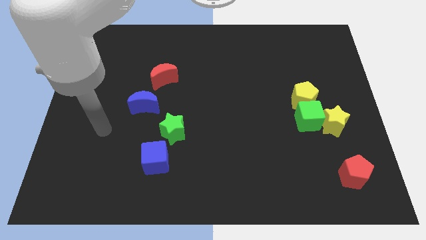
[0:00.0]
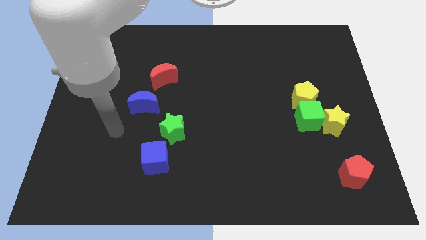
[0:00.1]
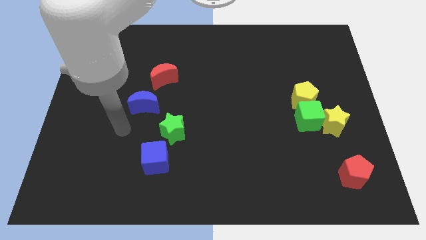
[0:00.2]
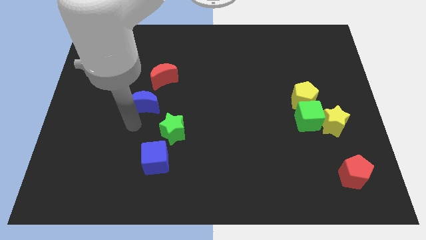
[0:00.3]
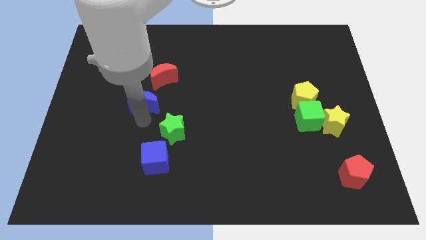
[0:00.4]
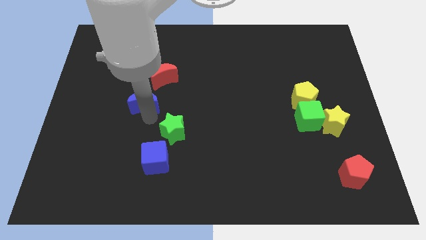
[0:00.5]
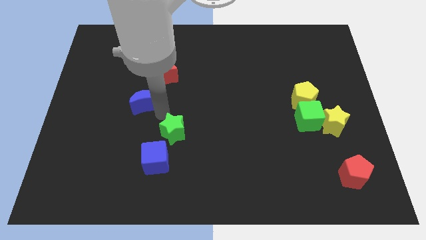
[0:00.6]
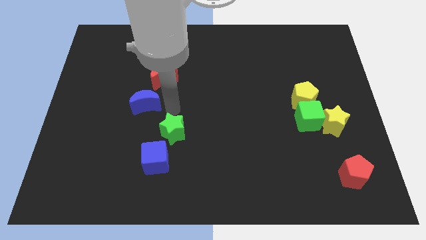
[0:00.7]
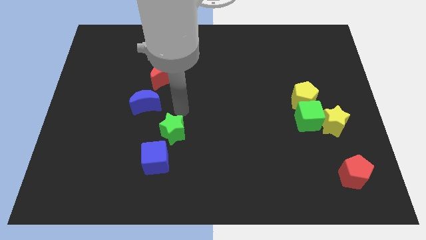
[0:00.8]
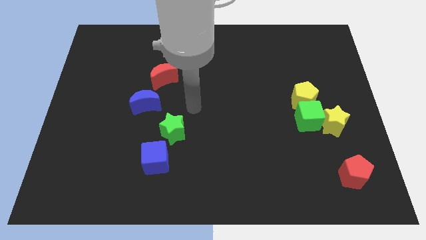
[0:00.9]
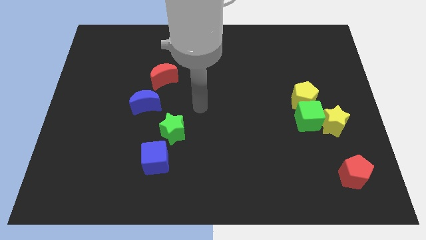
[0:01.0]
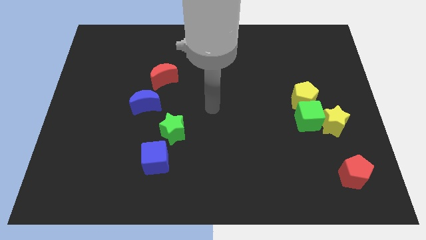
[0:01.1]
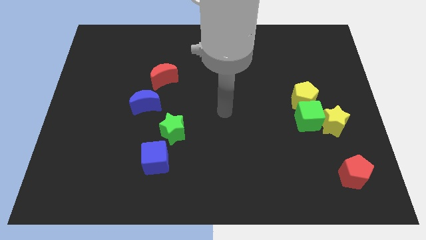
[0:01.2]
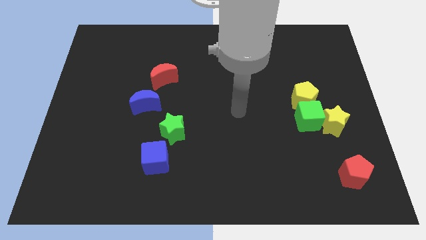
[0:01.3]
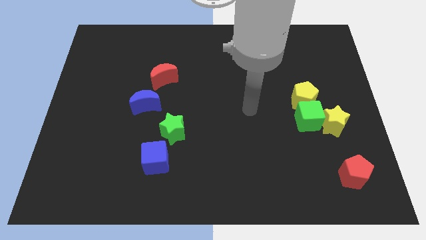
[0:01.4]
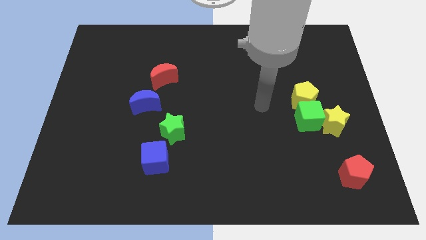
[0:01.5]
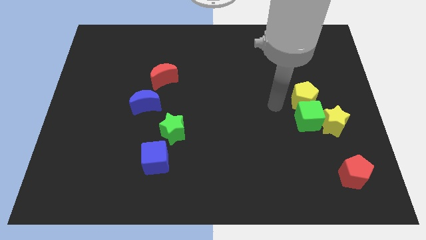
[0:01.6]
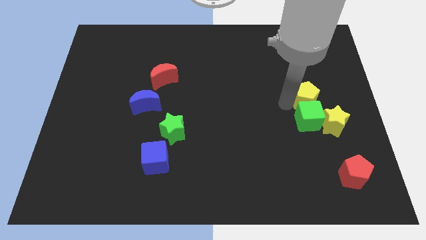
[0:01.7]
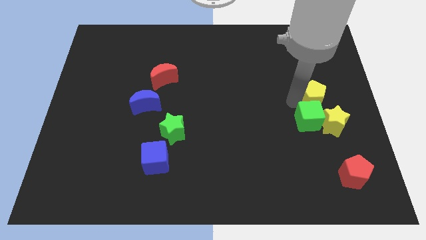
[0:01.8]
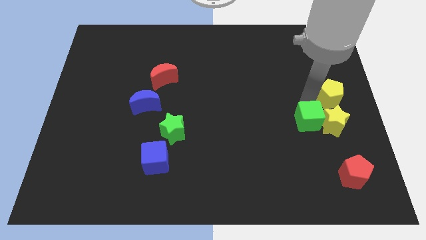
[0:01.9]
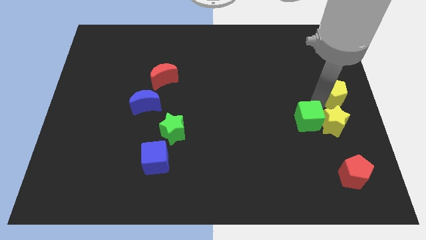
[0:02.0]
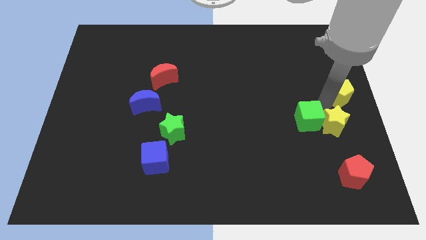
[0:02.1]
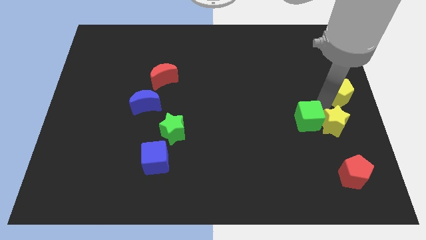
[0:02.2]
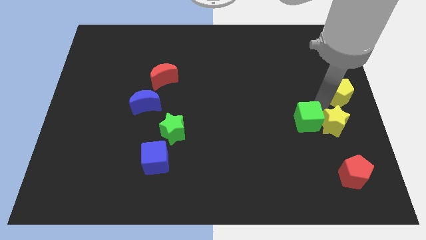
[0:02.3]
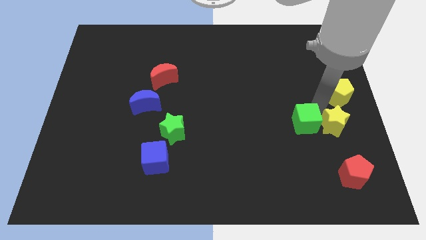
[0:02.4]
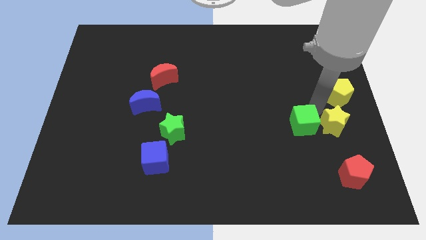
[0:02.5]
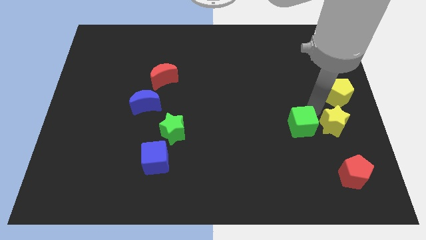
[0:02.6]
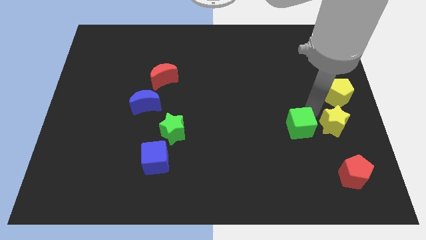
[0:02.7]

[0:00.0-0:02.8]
separate the green cube from the yellow star and yellow pentagon

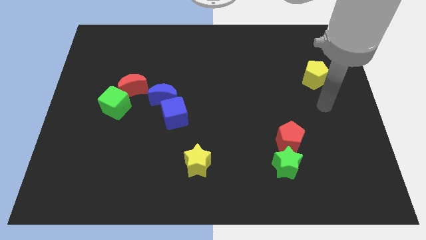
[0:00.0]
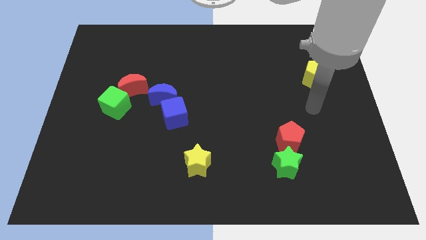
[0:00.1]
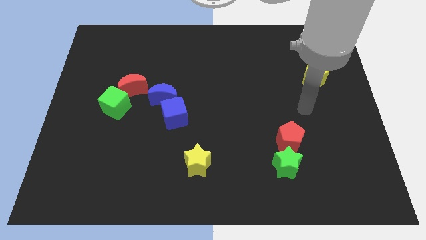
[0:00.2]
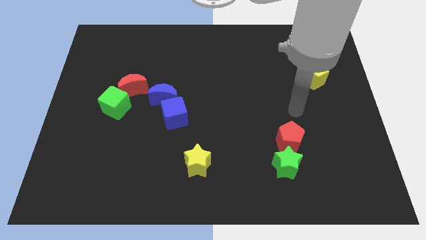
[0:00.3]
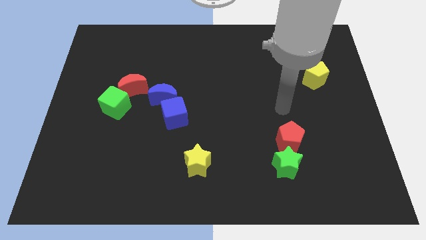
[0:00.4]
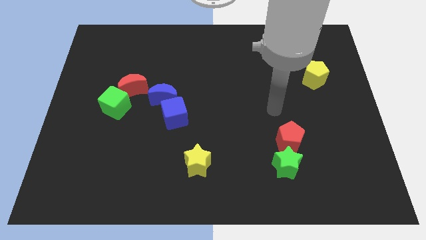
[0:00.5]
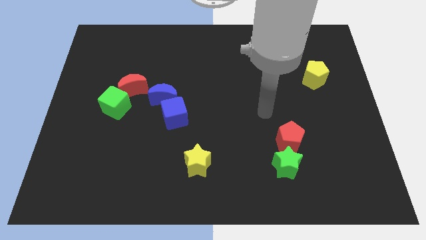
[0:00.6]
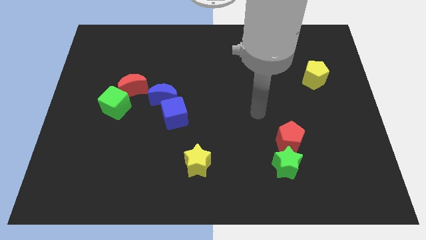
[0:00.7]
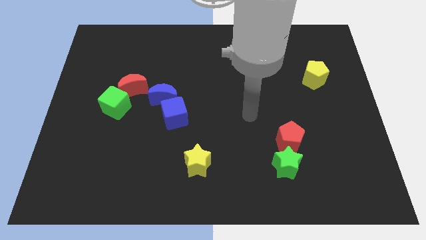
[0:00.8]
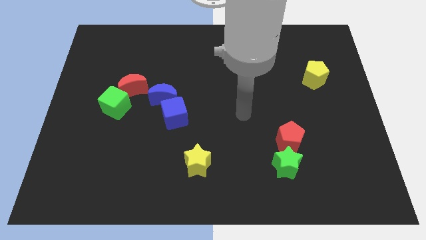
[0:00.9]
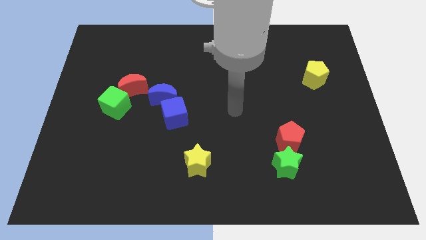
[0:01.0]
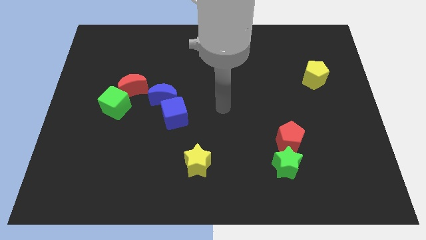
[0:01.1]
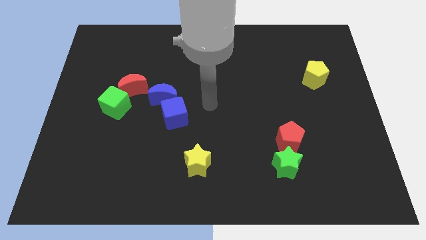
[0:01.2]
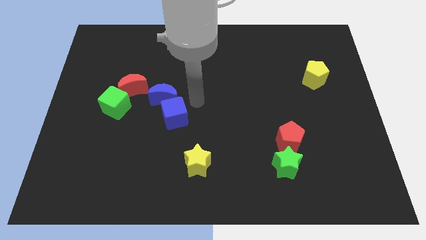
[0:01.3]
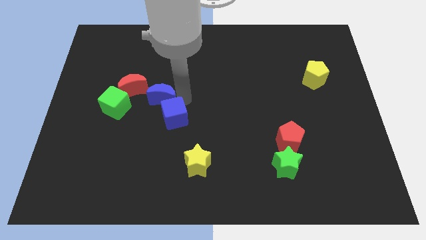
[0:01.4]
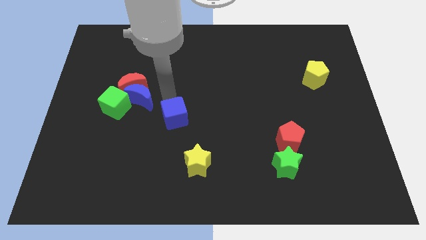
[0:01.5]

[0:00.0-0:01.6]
separate the blue cube from the blue moon

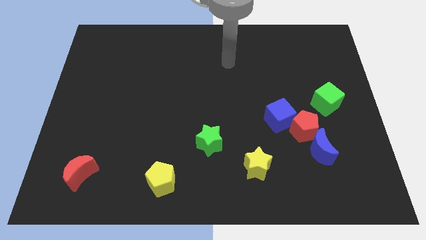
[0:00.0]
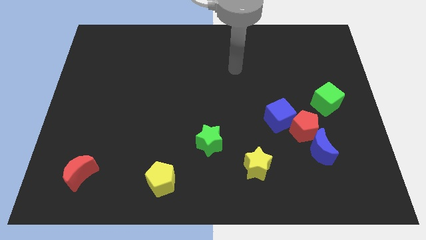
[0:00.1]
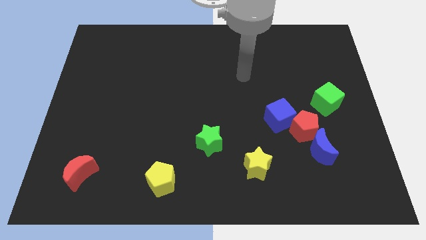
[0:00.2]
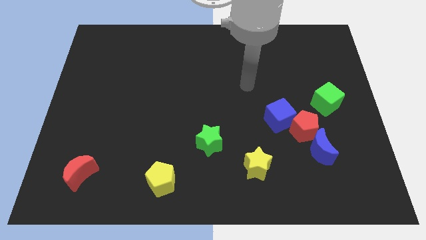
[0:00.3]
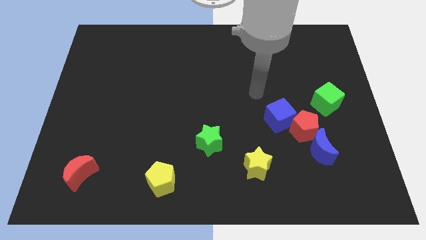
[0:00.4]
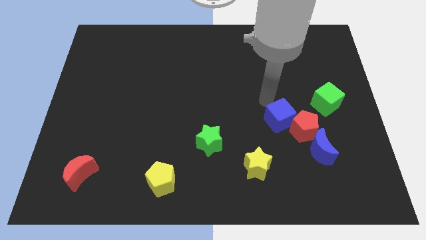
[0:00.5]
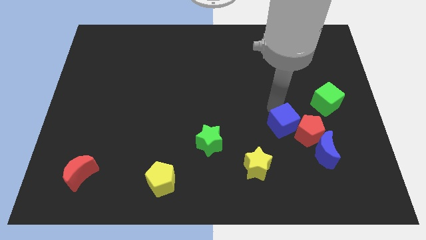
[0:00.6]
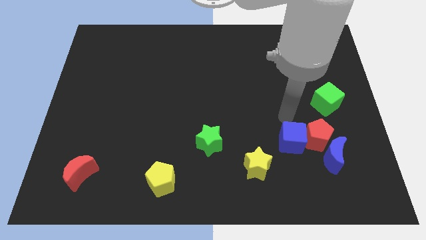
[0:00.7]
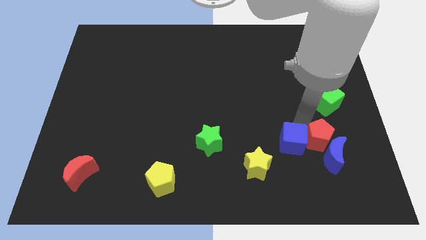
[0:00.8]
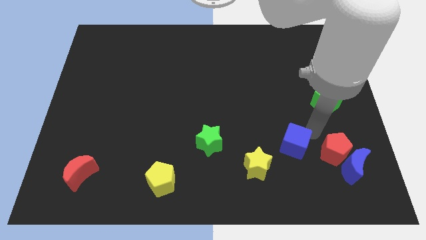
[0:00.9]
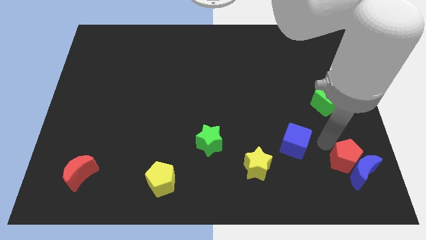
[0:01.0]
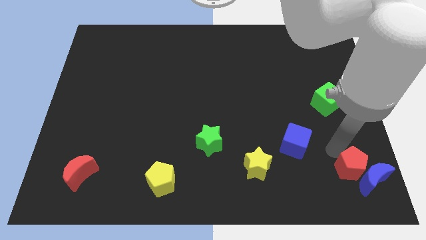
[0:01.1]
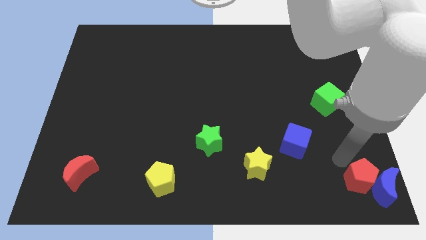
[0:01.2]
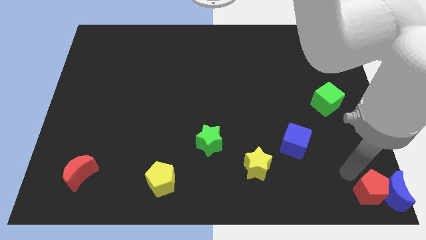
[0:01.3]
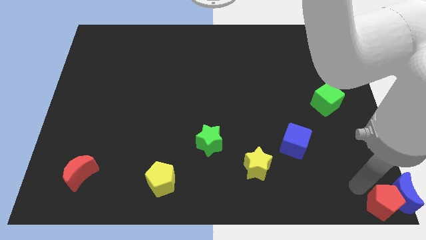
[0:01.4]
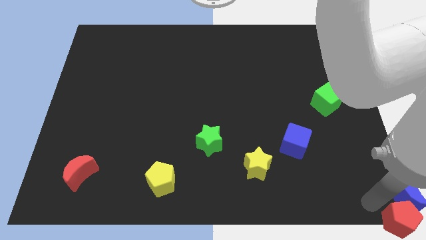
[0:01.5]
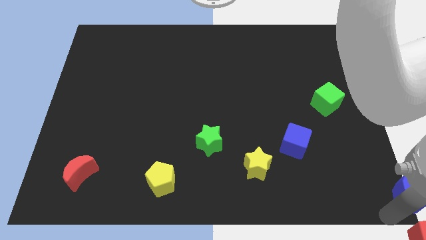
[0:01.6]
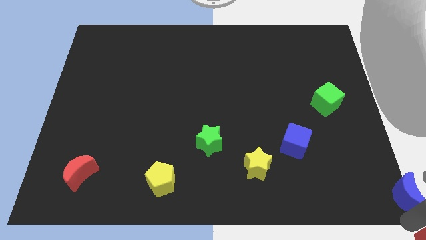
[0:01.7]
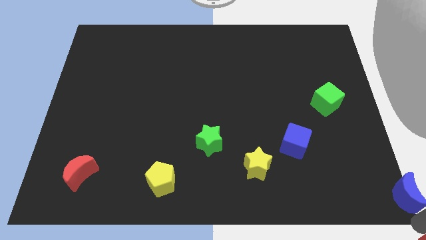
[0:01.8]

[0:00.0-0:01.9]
pull the blue moon apart from the red pentagon

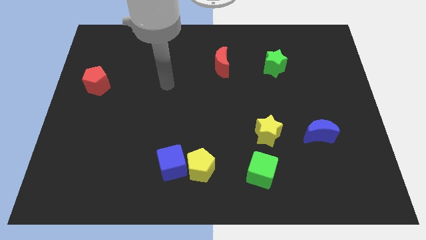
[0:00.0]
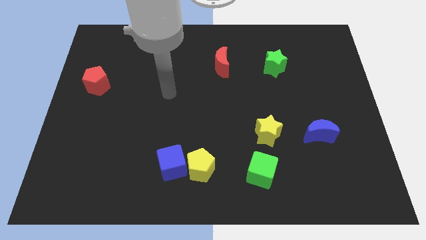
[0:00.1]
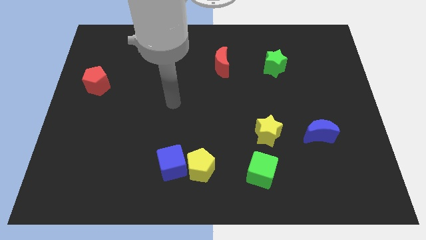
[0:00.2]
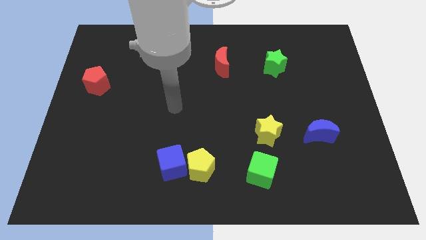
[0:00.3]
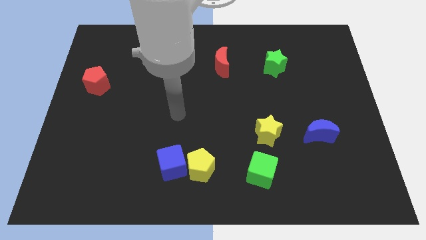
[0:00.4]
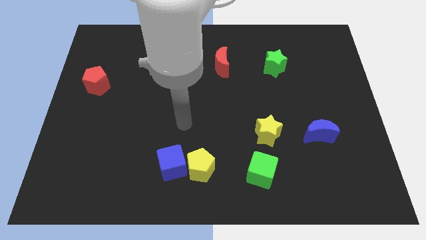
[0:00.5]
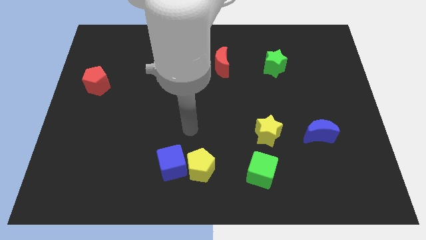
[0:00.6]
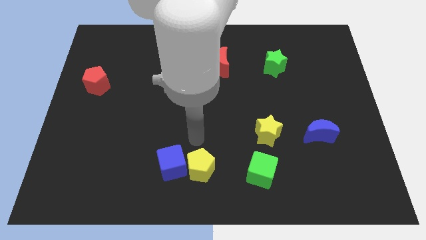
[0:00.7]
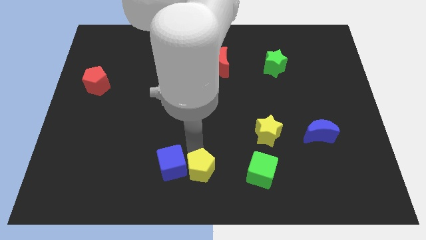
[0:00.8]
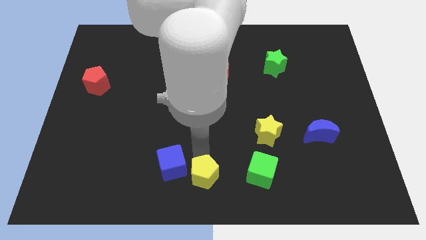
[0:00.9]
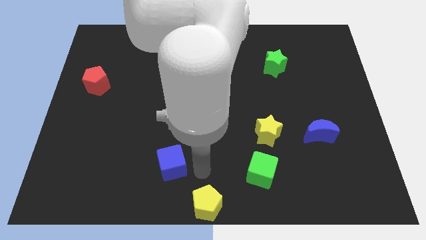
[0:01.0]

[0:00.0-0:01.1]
pull the blue cube apart from the yellow pentagon

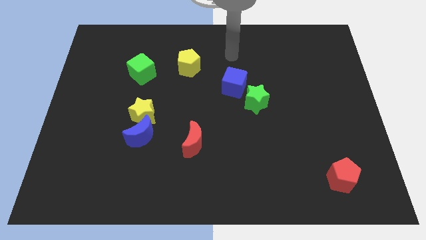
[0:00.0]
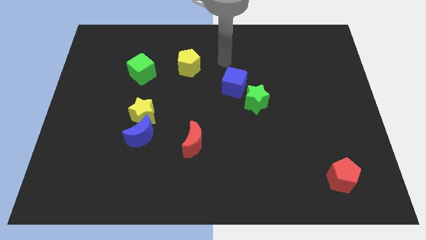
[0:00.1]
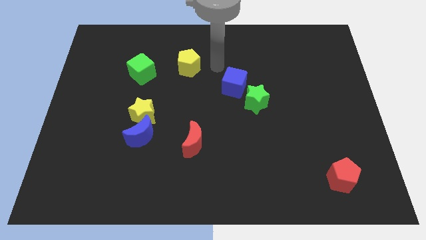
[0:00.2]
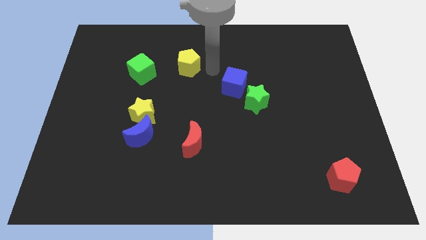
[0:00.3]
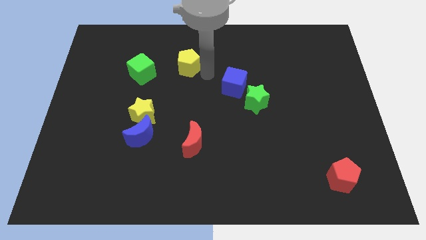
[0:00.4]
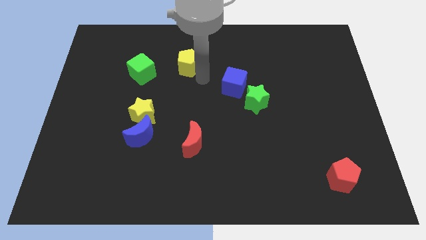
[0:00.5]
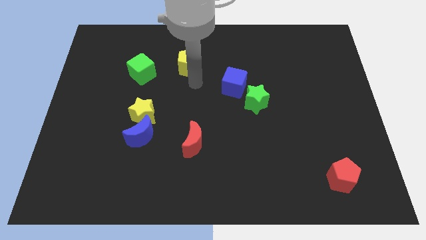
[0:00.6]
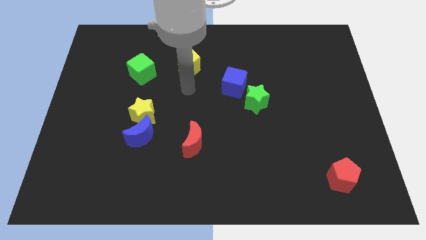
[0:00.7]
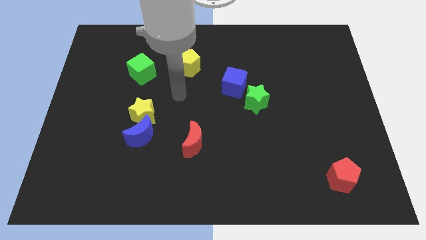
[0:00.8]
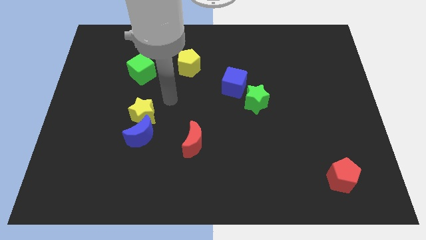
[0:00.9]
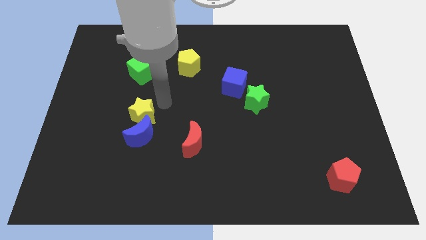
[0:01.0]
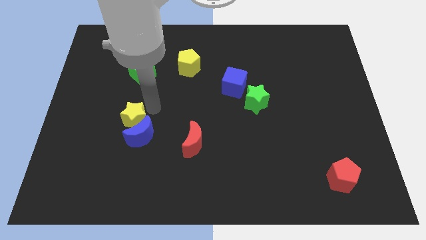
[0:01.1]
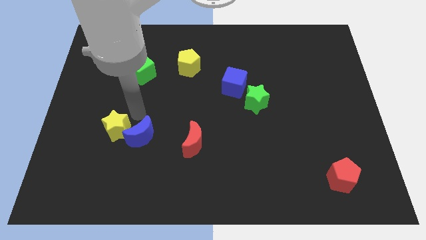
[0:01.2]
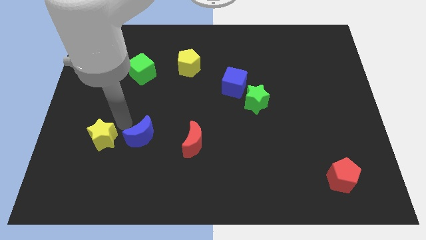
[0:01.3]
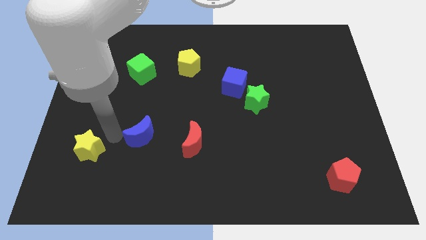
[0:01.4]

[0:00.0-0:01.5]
separate the blue moon from the yellow star

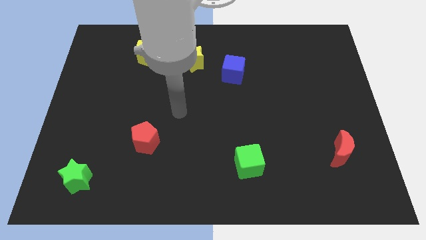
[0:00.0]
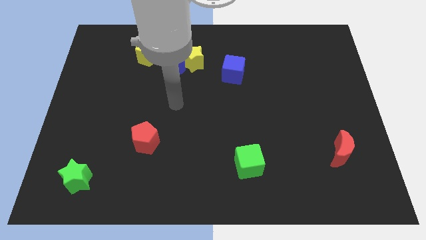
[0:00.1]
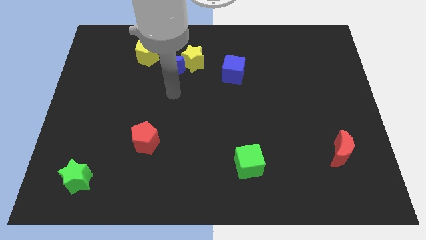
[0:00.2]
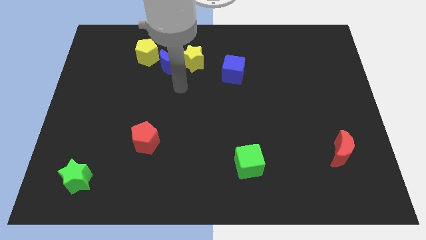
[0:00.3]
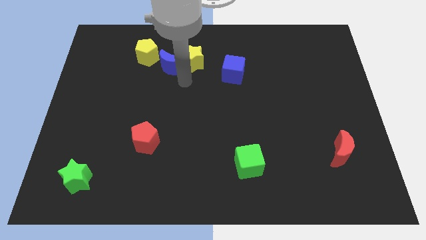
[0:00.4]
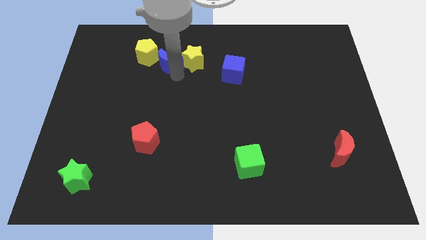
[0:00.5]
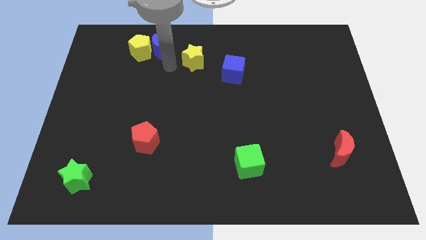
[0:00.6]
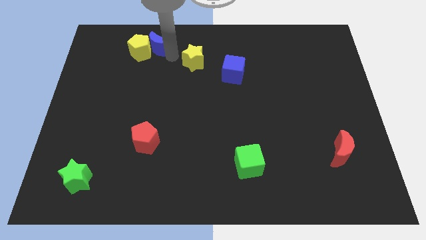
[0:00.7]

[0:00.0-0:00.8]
move the yellow star away from the blue moon
